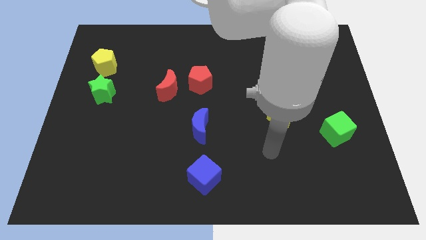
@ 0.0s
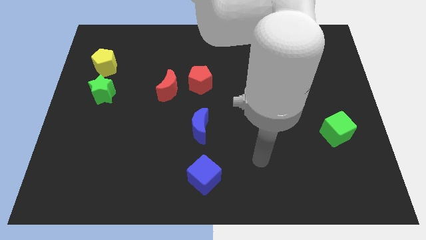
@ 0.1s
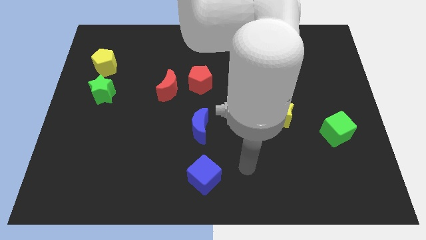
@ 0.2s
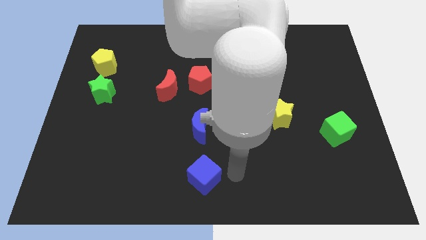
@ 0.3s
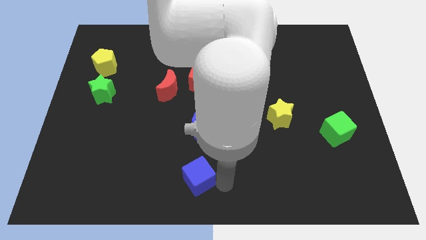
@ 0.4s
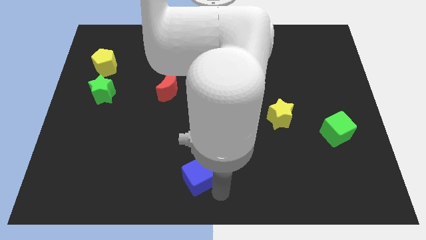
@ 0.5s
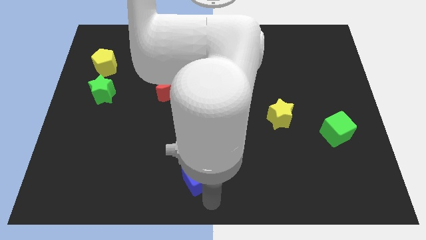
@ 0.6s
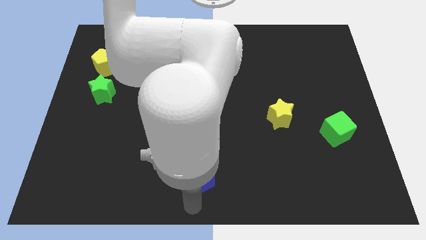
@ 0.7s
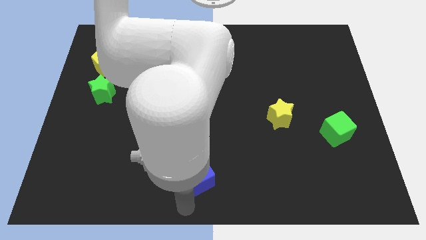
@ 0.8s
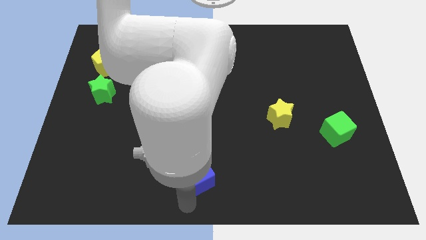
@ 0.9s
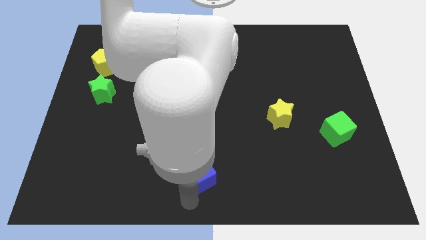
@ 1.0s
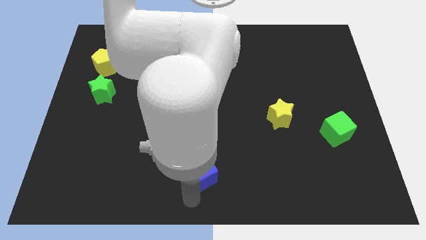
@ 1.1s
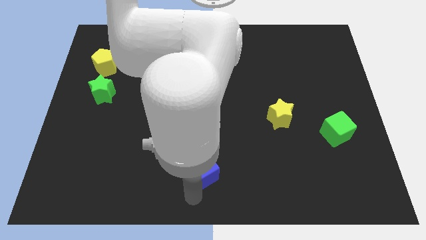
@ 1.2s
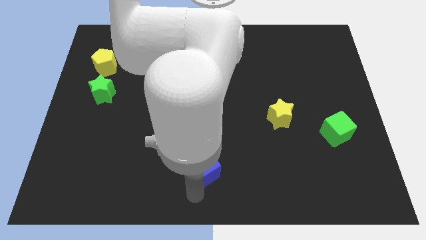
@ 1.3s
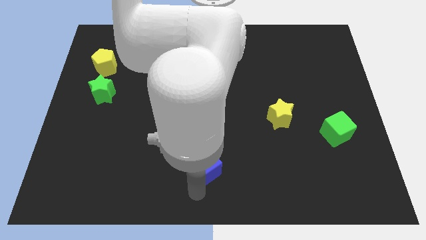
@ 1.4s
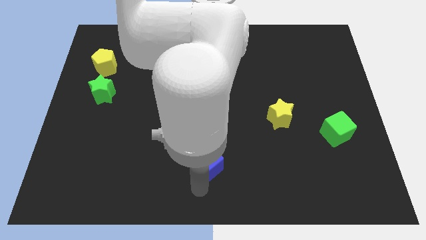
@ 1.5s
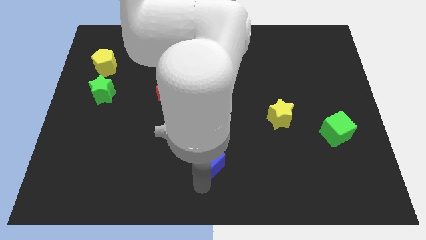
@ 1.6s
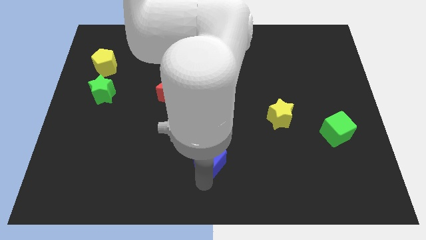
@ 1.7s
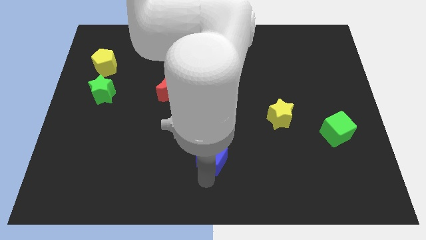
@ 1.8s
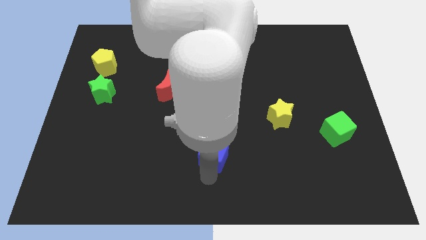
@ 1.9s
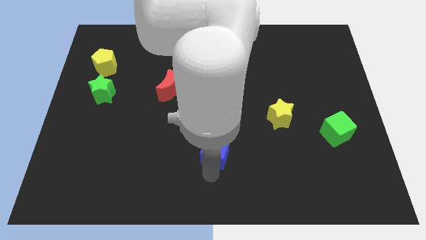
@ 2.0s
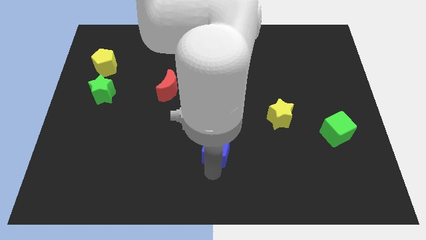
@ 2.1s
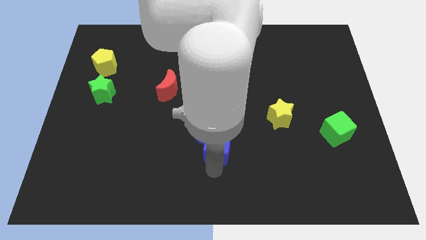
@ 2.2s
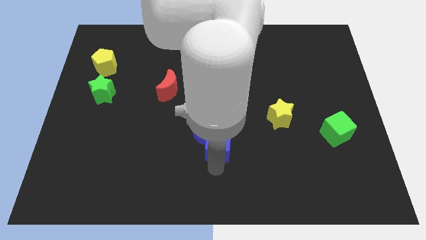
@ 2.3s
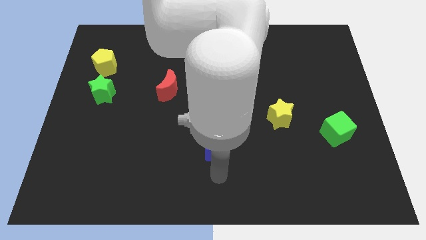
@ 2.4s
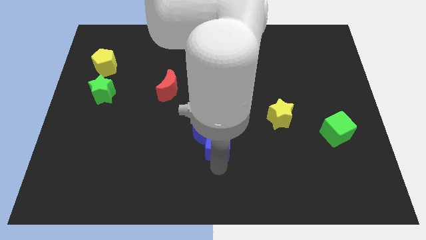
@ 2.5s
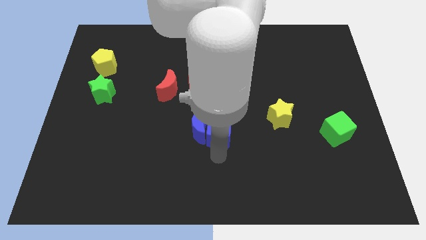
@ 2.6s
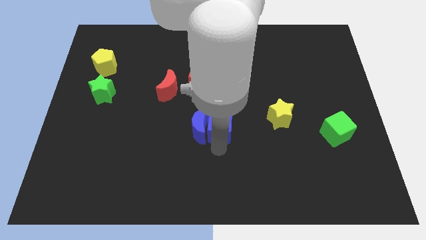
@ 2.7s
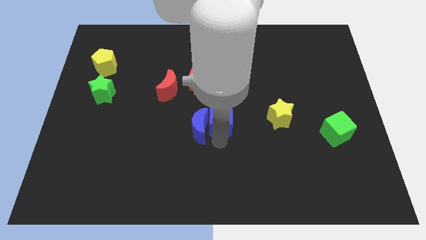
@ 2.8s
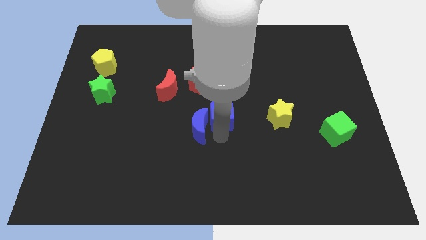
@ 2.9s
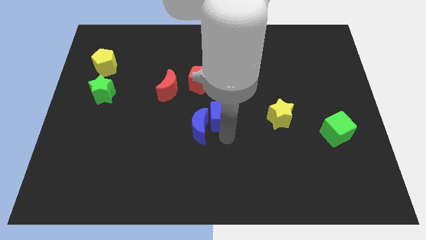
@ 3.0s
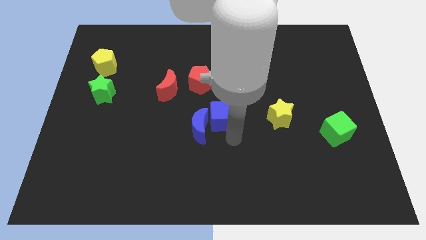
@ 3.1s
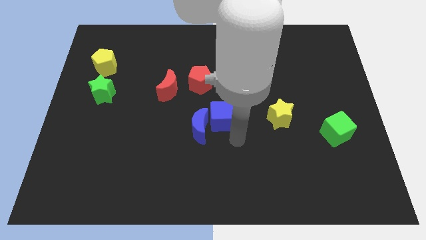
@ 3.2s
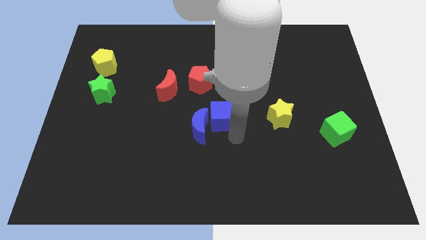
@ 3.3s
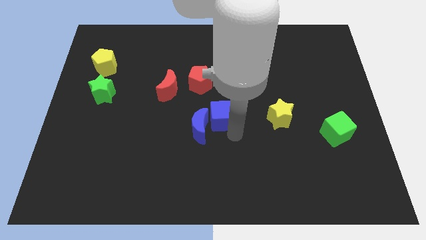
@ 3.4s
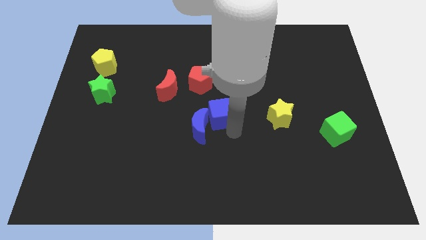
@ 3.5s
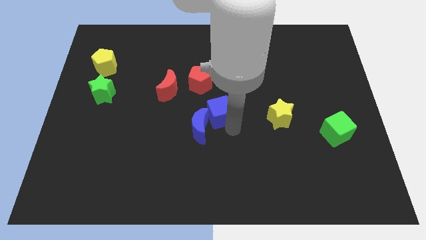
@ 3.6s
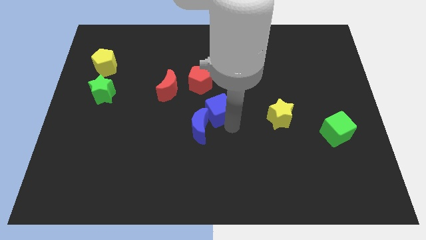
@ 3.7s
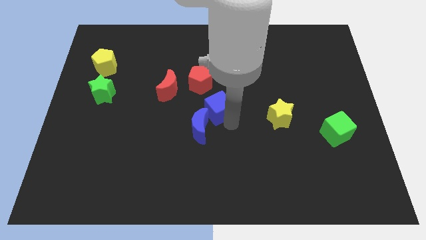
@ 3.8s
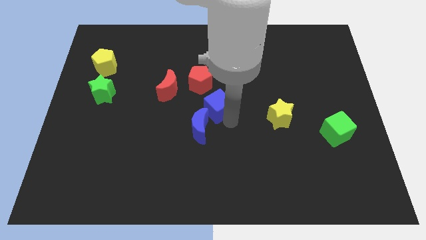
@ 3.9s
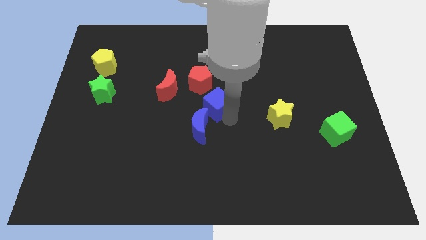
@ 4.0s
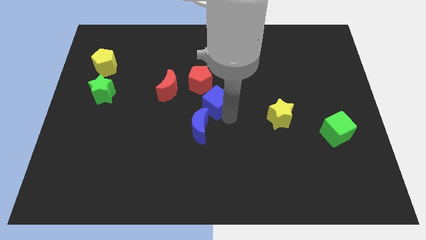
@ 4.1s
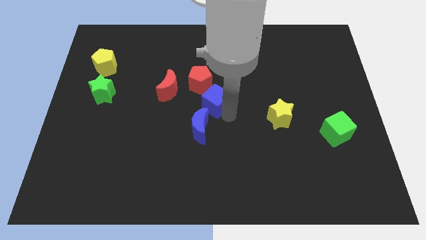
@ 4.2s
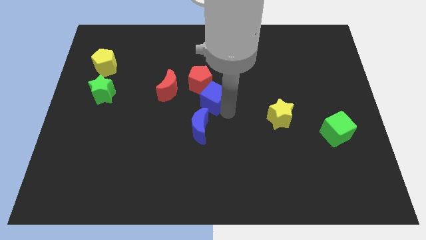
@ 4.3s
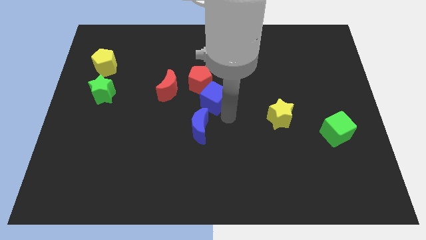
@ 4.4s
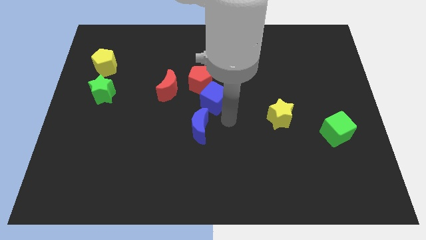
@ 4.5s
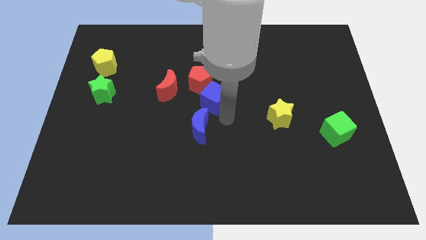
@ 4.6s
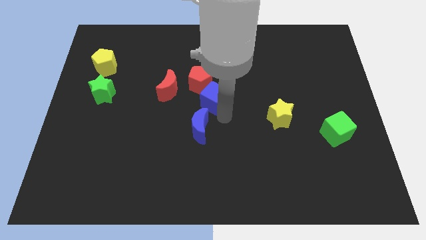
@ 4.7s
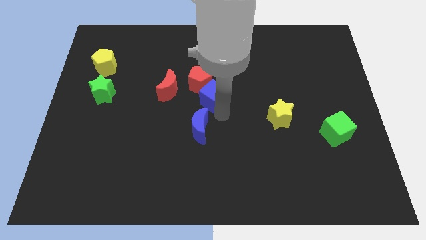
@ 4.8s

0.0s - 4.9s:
slide the blue cube to the red pentagon

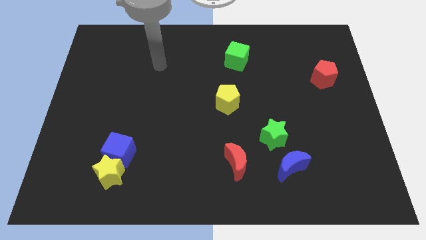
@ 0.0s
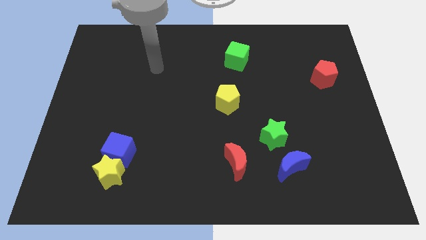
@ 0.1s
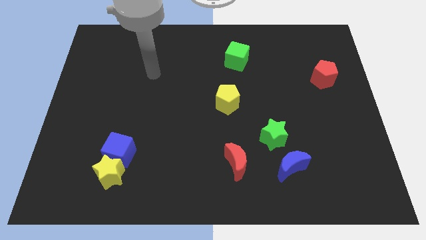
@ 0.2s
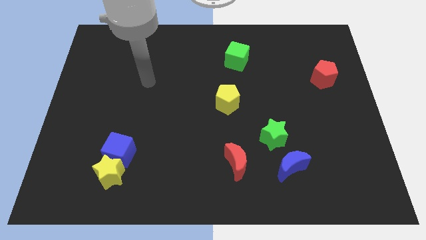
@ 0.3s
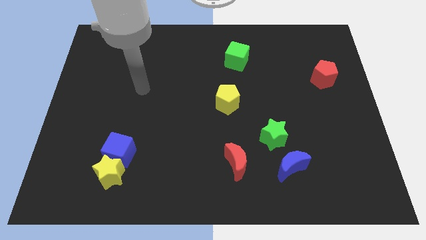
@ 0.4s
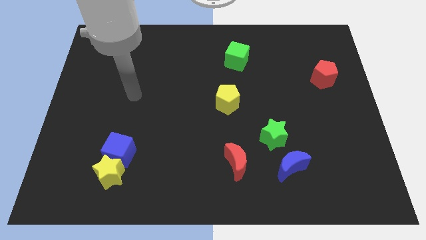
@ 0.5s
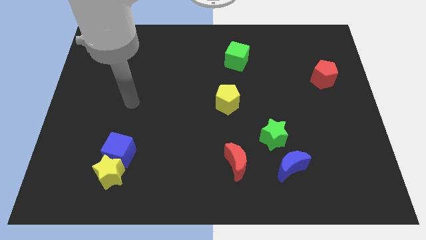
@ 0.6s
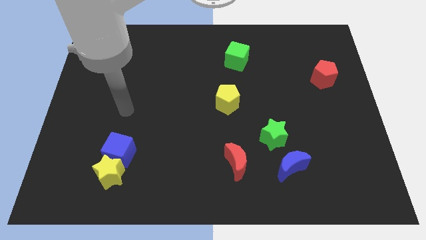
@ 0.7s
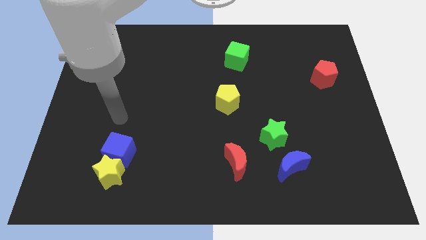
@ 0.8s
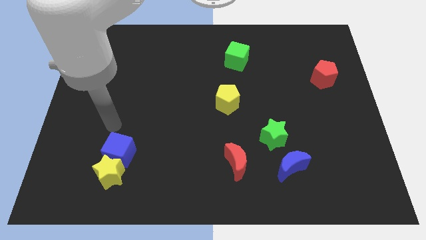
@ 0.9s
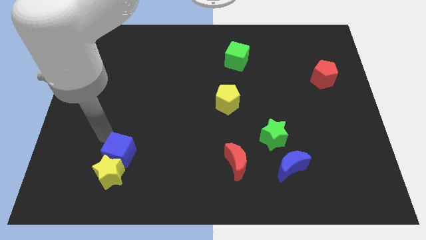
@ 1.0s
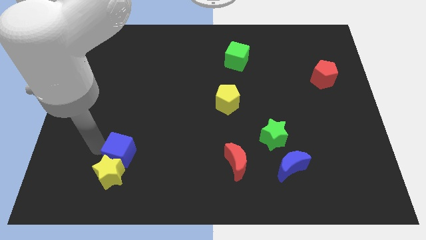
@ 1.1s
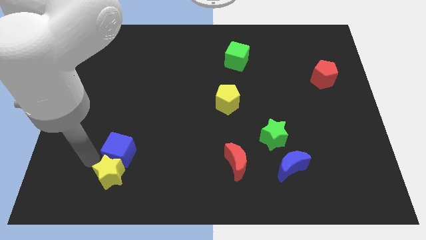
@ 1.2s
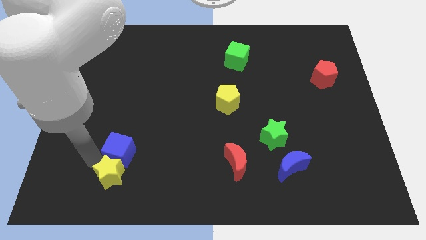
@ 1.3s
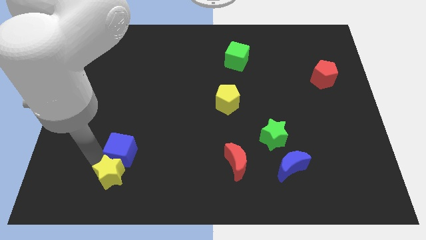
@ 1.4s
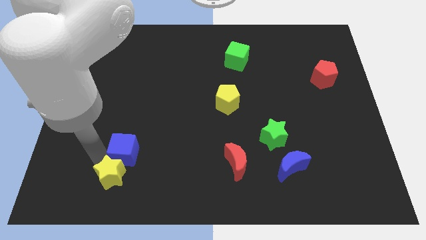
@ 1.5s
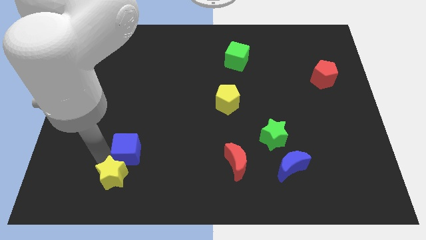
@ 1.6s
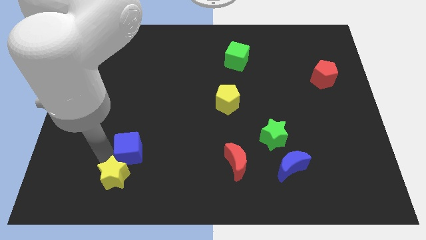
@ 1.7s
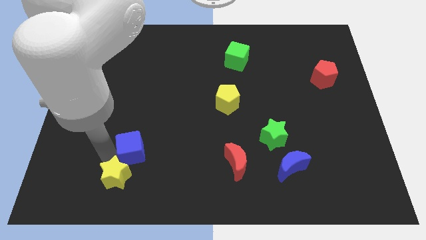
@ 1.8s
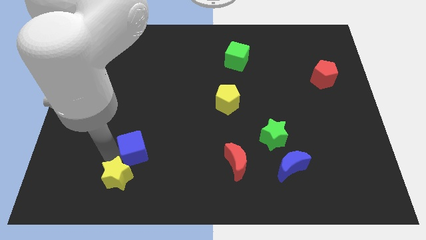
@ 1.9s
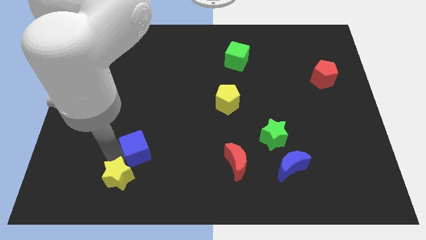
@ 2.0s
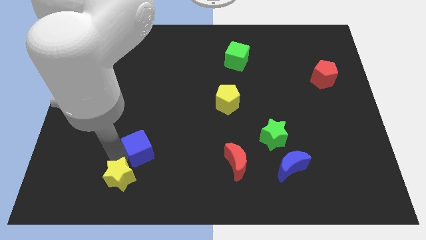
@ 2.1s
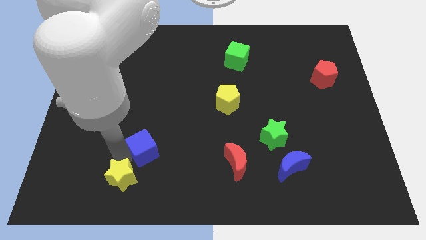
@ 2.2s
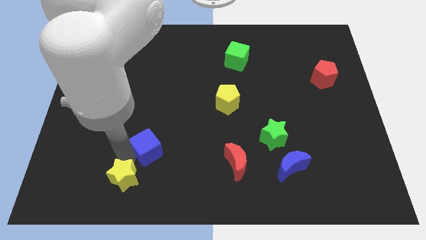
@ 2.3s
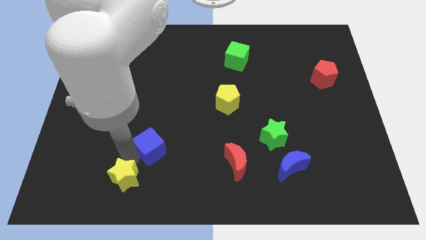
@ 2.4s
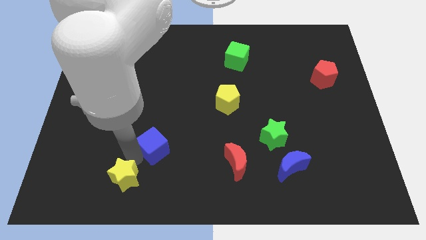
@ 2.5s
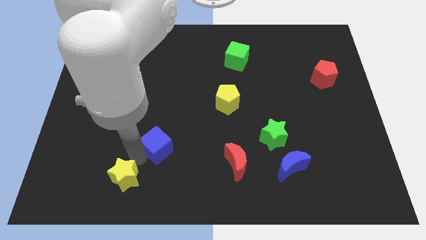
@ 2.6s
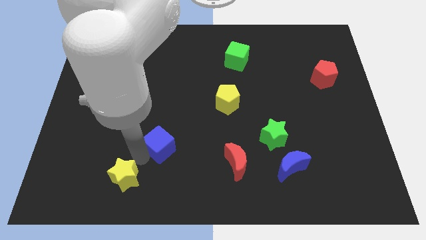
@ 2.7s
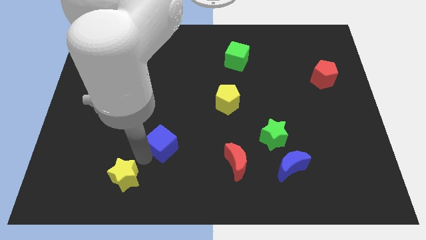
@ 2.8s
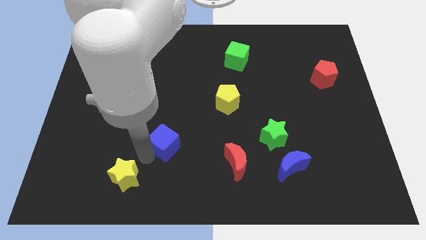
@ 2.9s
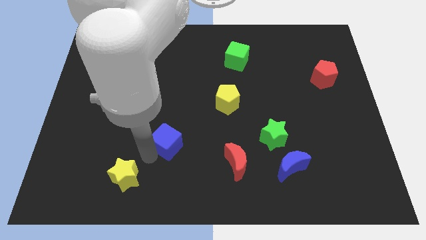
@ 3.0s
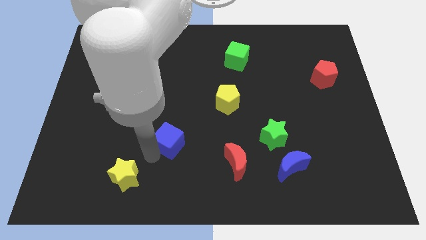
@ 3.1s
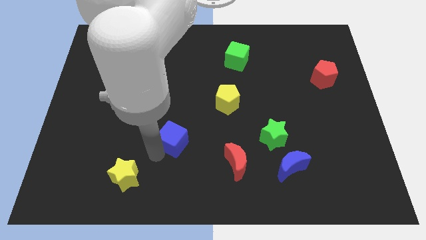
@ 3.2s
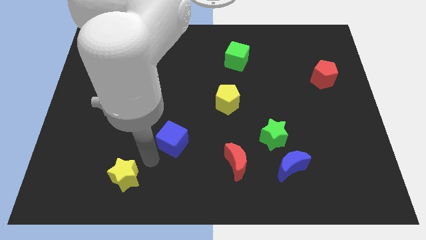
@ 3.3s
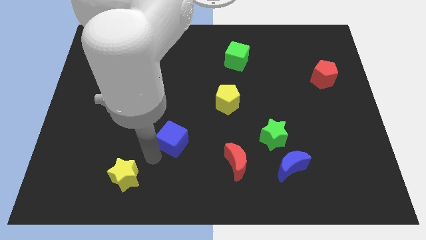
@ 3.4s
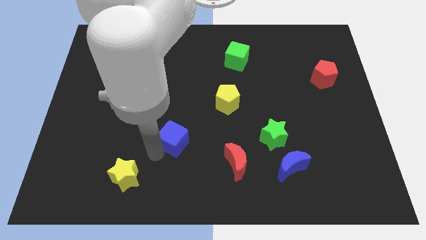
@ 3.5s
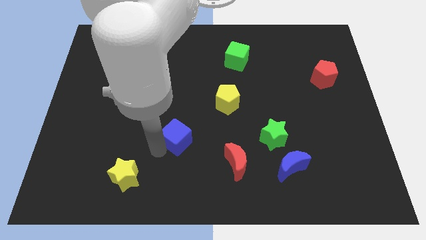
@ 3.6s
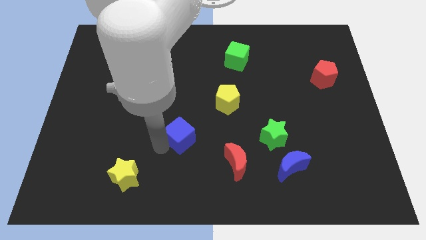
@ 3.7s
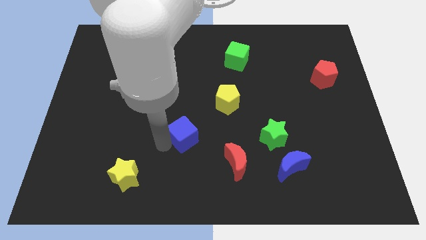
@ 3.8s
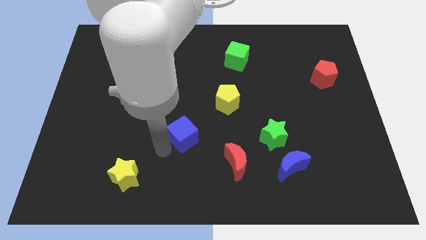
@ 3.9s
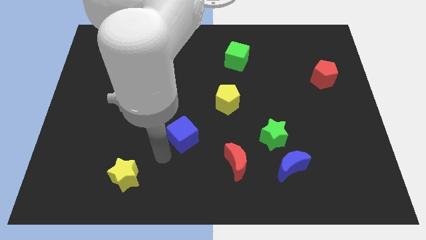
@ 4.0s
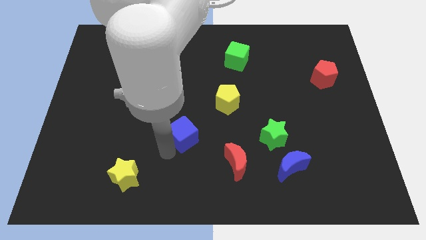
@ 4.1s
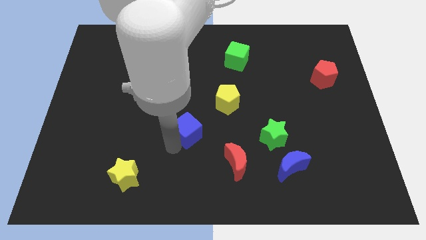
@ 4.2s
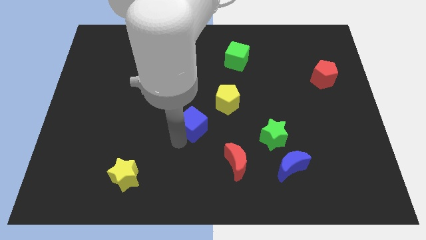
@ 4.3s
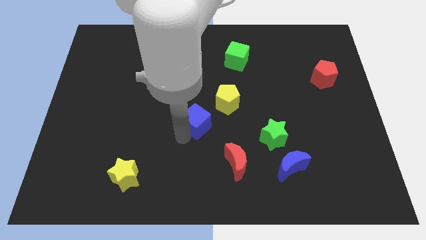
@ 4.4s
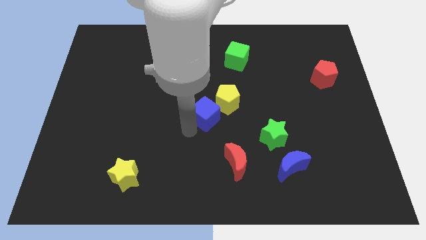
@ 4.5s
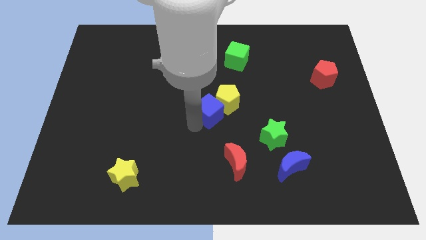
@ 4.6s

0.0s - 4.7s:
move the blue cube close to the yellow pentagon
